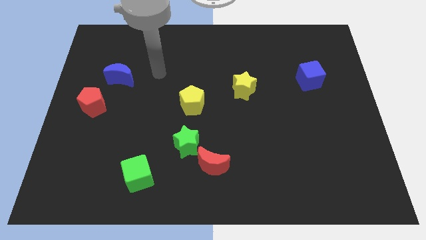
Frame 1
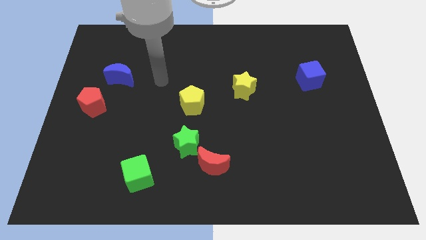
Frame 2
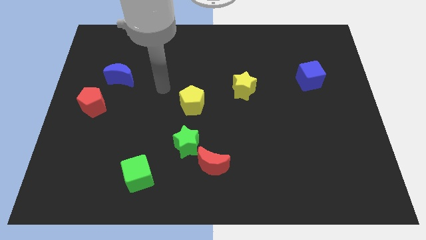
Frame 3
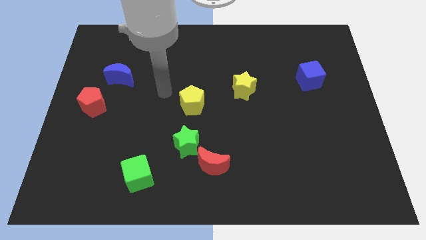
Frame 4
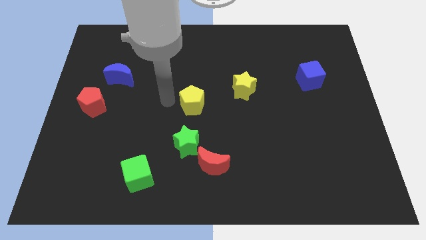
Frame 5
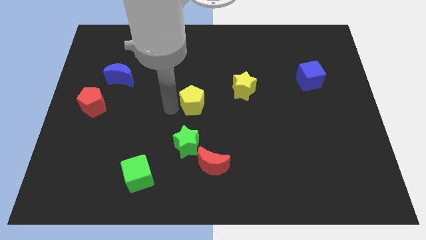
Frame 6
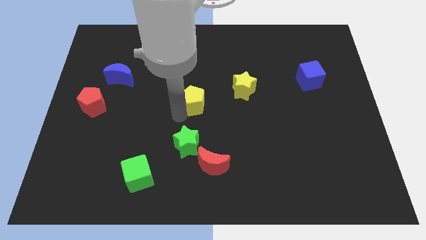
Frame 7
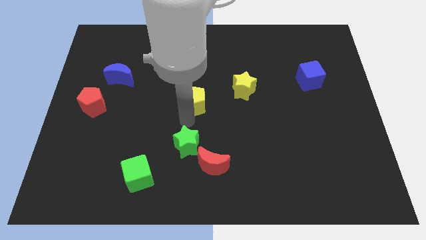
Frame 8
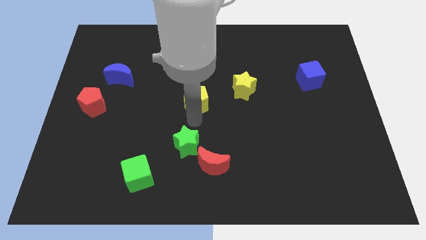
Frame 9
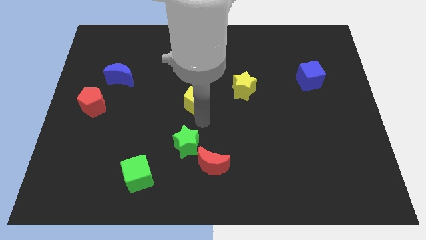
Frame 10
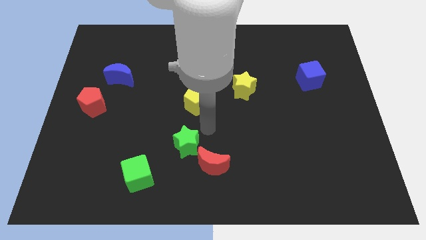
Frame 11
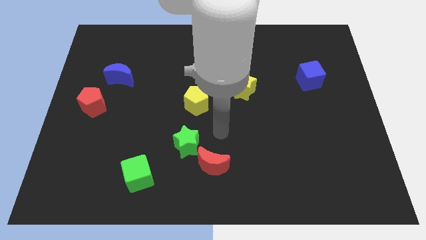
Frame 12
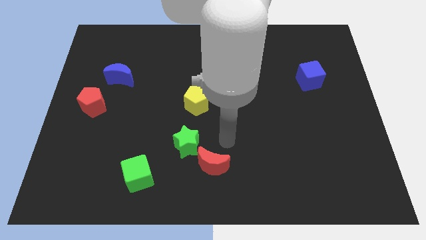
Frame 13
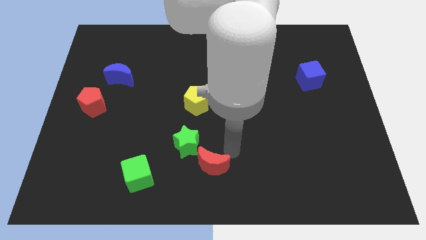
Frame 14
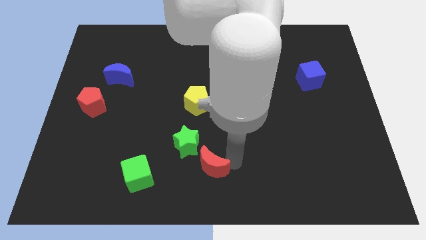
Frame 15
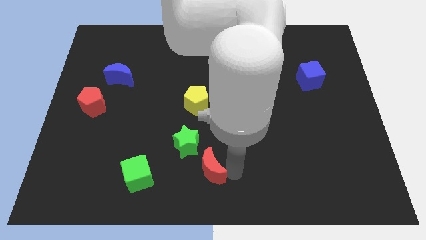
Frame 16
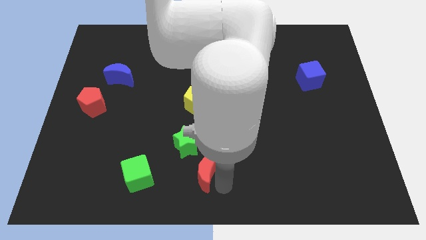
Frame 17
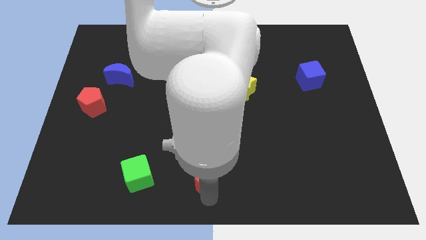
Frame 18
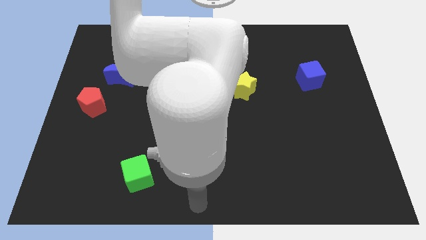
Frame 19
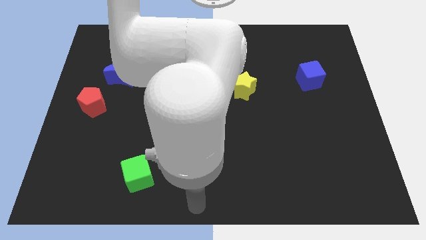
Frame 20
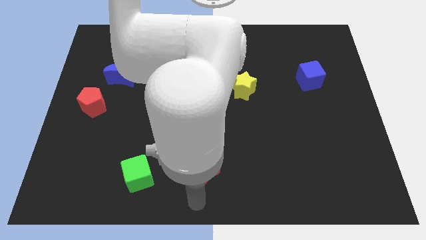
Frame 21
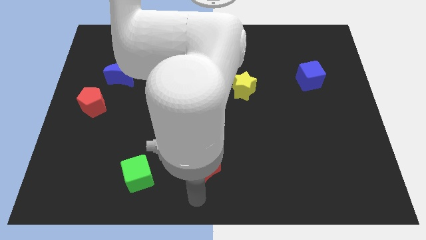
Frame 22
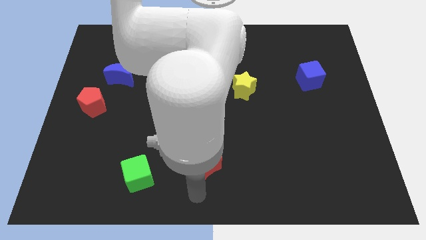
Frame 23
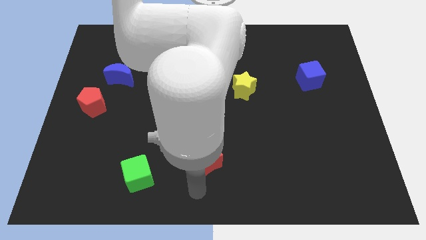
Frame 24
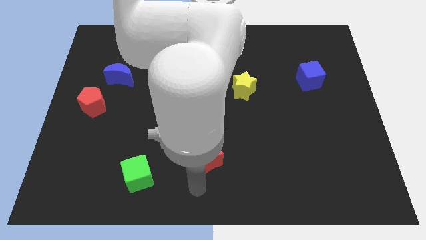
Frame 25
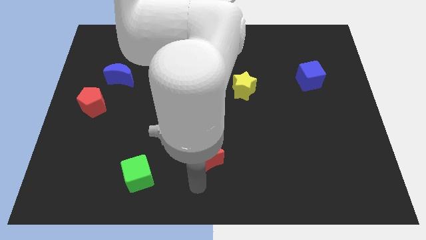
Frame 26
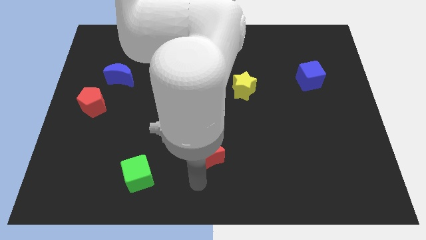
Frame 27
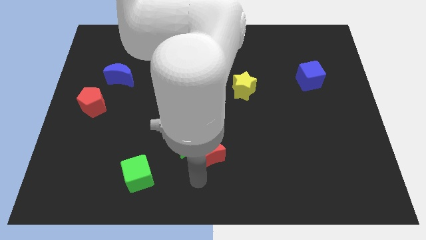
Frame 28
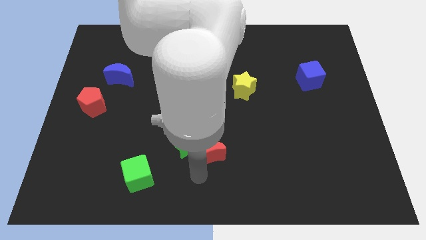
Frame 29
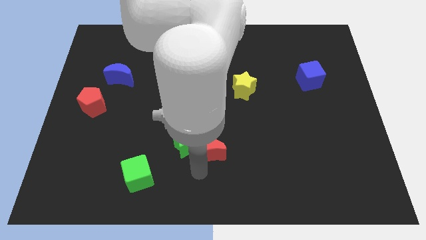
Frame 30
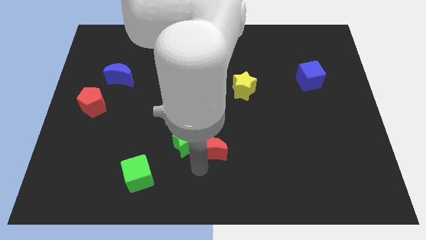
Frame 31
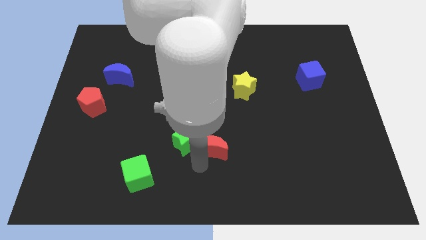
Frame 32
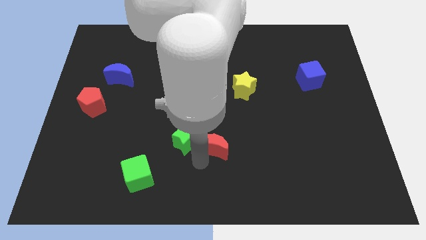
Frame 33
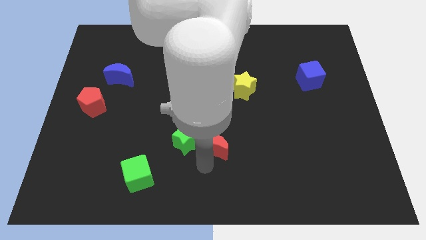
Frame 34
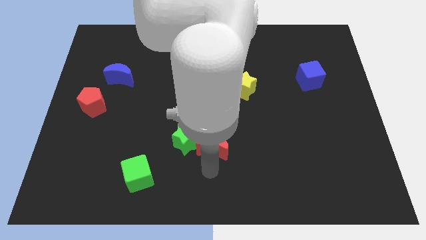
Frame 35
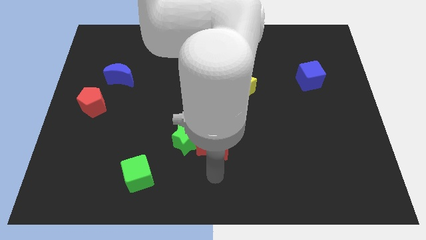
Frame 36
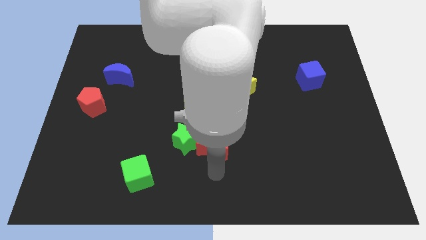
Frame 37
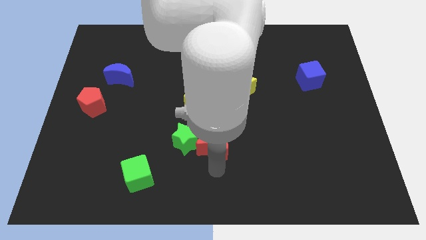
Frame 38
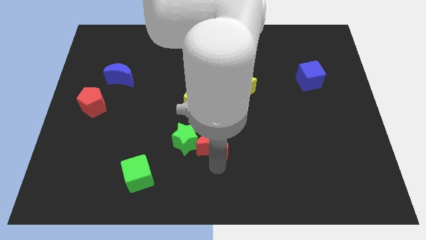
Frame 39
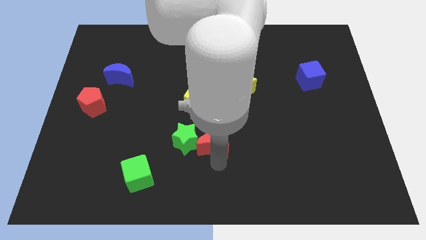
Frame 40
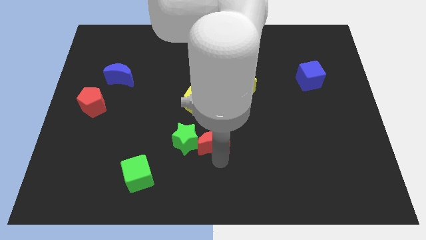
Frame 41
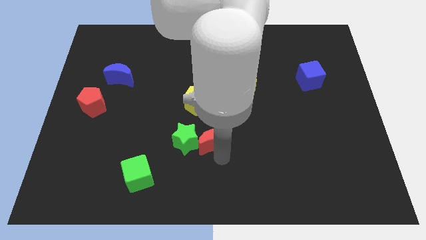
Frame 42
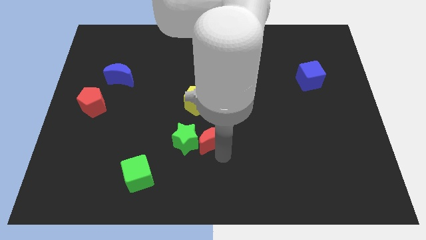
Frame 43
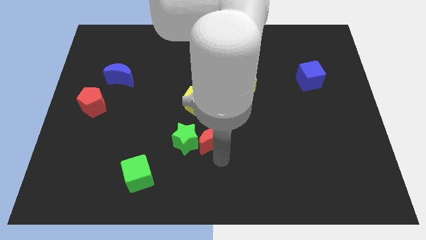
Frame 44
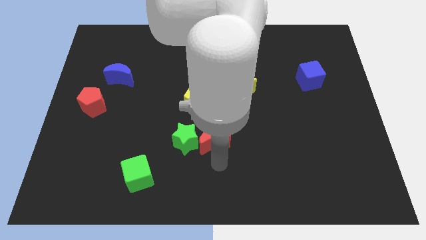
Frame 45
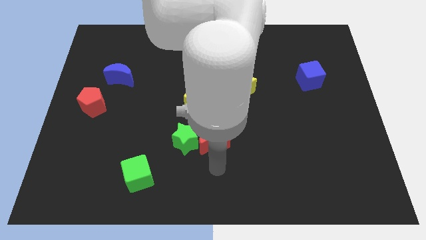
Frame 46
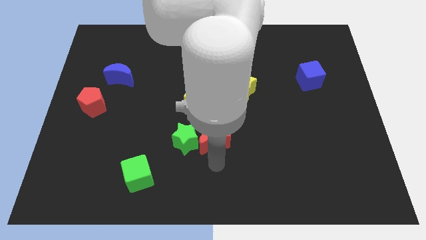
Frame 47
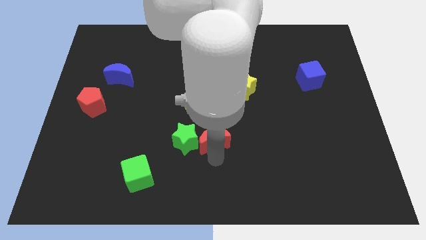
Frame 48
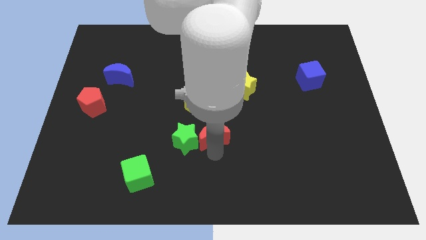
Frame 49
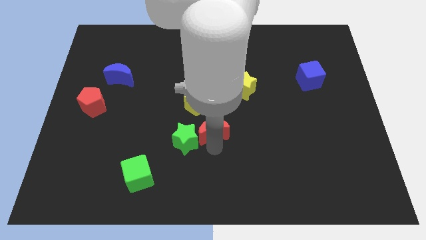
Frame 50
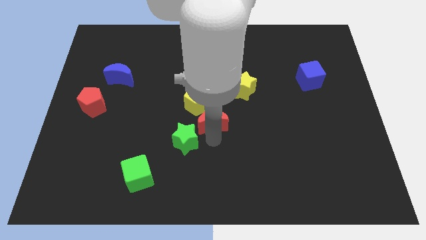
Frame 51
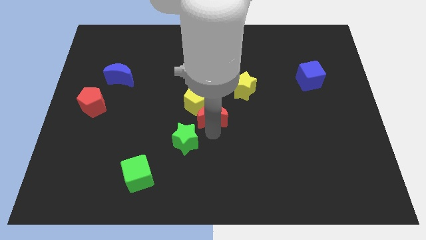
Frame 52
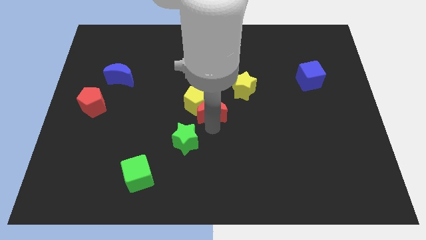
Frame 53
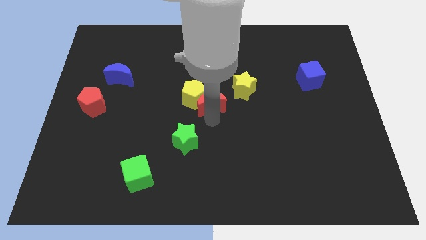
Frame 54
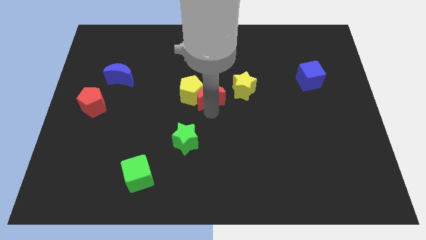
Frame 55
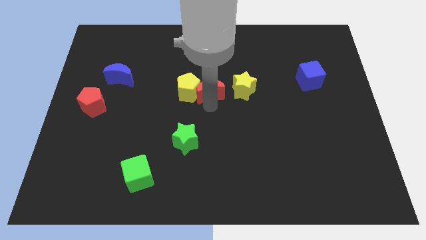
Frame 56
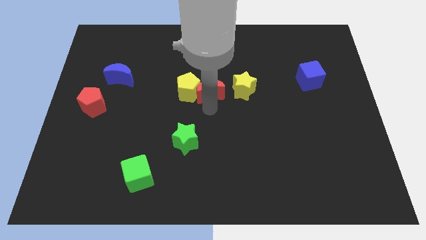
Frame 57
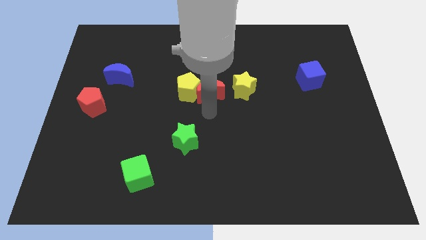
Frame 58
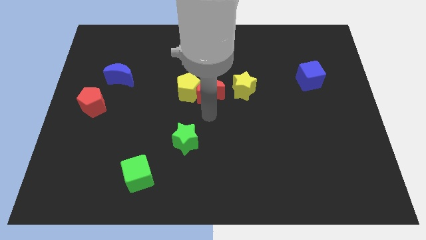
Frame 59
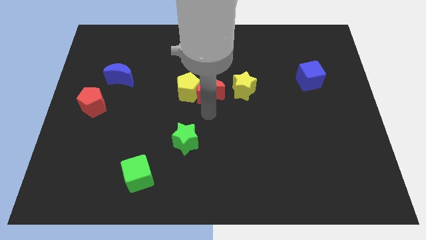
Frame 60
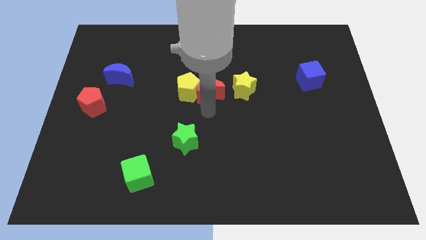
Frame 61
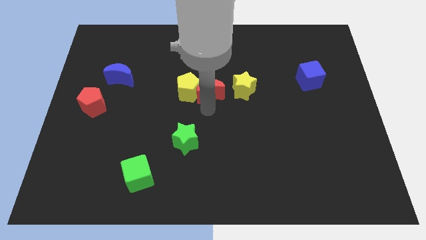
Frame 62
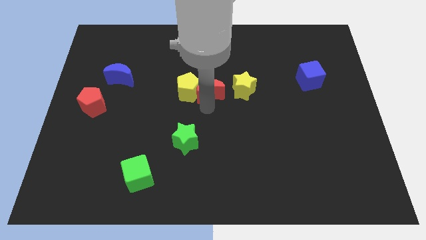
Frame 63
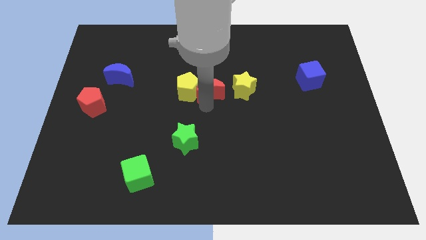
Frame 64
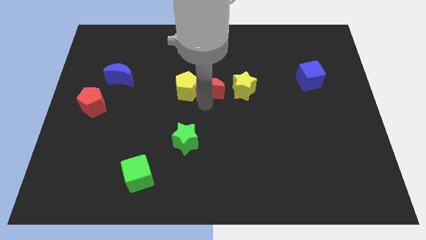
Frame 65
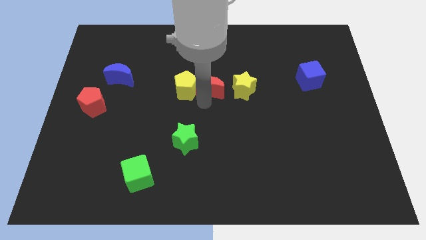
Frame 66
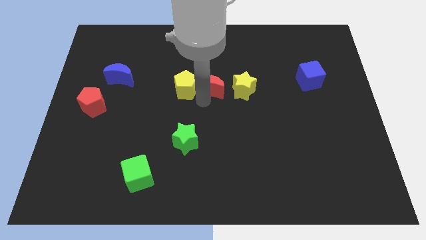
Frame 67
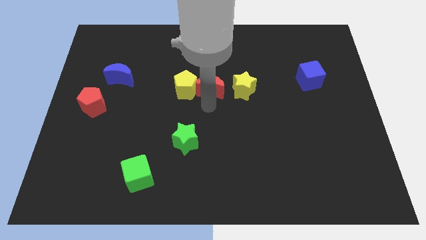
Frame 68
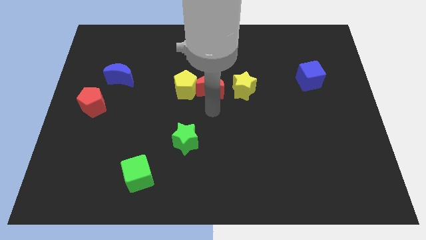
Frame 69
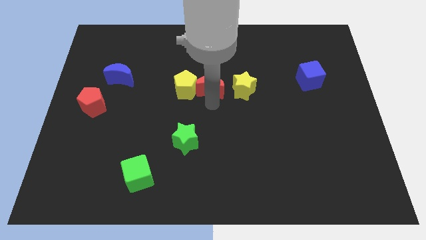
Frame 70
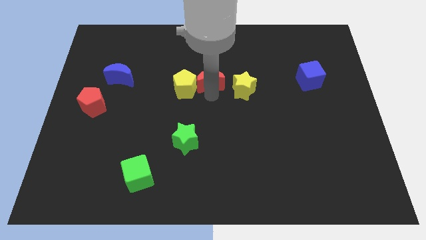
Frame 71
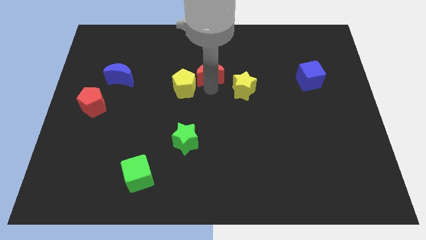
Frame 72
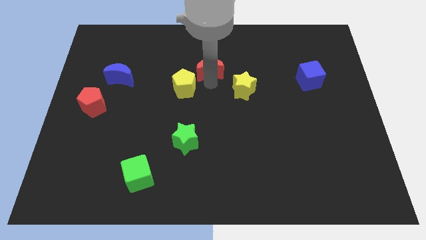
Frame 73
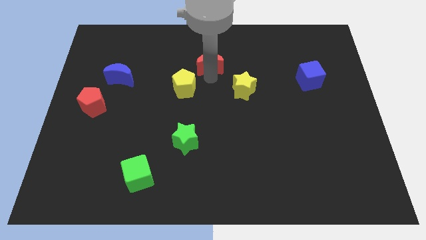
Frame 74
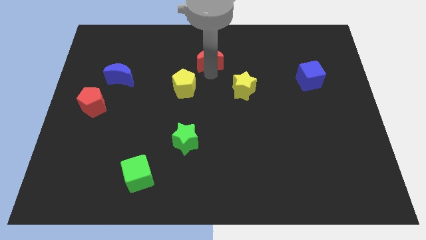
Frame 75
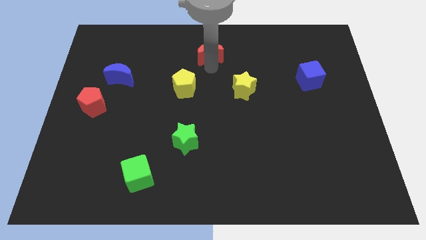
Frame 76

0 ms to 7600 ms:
put the red moon to the towards your base
